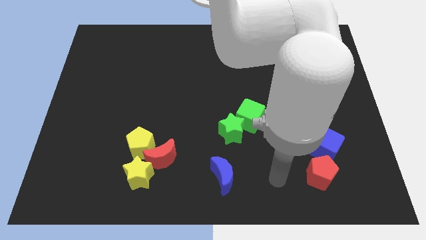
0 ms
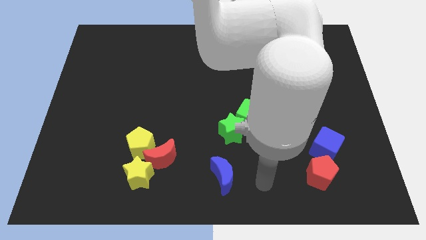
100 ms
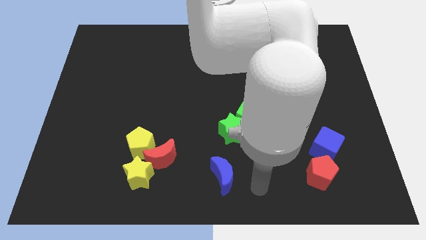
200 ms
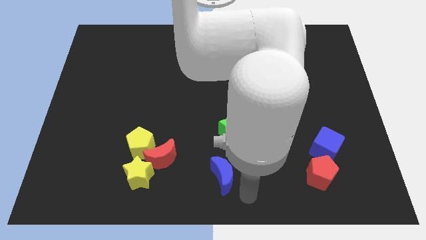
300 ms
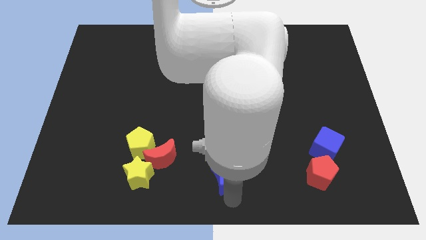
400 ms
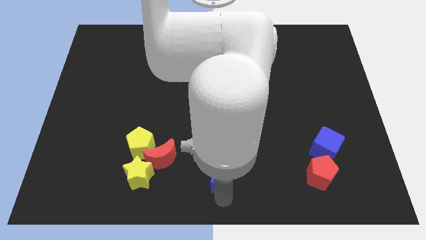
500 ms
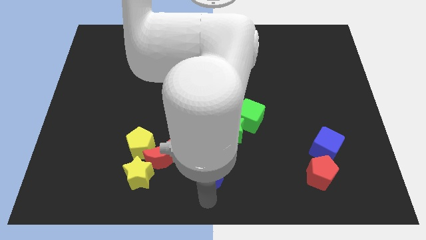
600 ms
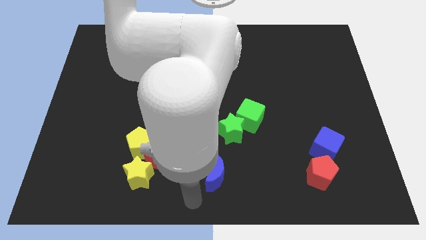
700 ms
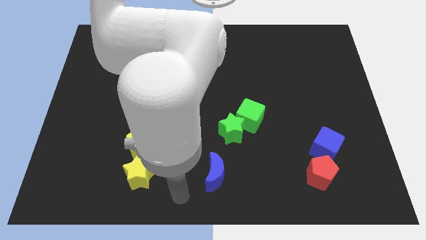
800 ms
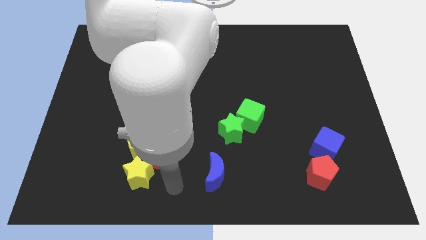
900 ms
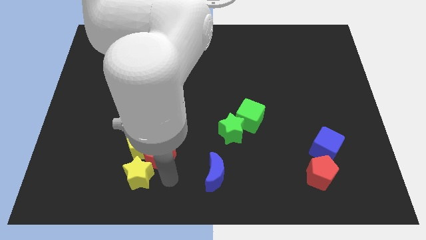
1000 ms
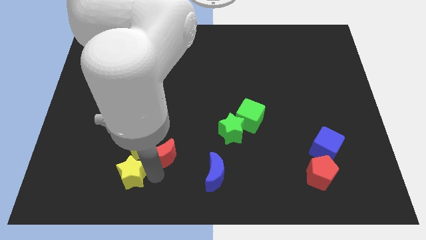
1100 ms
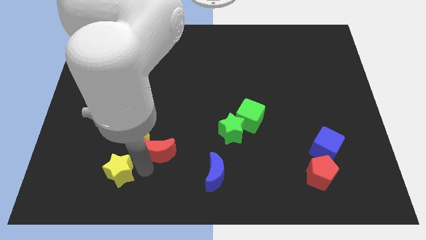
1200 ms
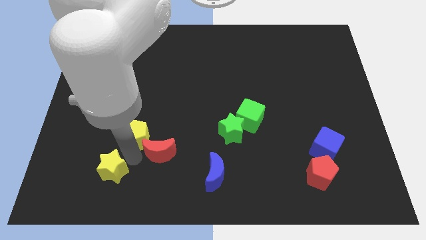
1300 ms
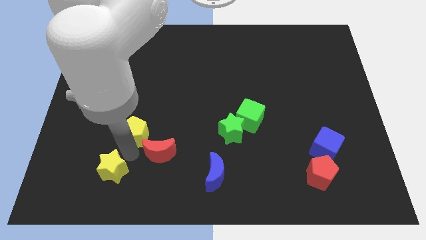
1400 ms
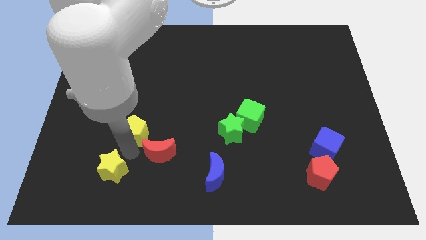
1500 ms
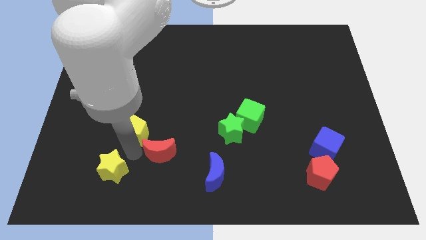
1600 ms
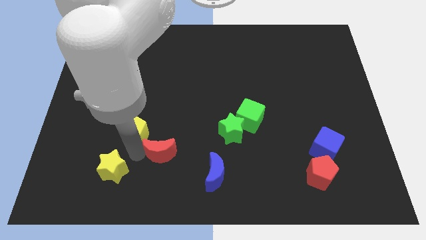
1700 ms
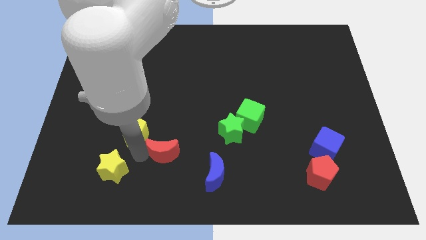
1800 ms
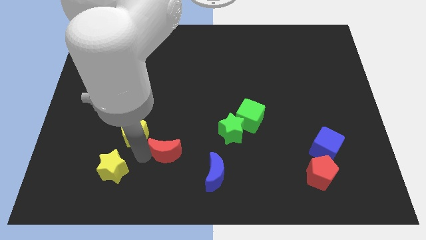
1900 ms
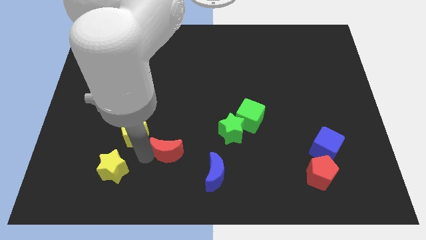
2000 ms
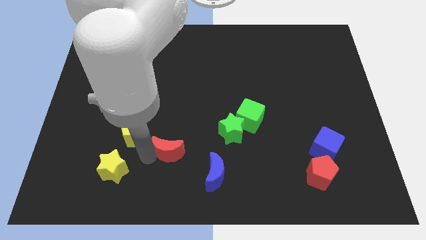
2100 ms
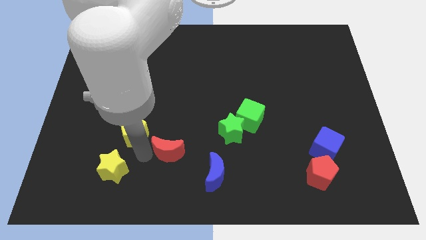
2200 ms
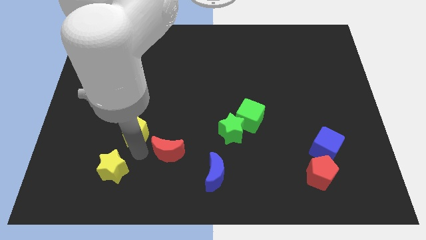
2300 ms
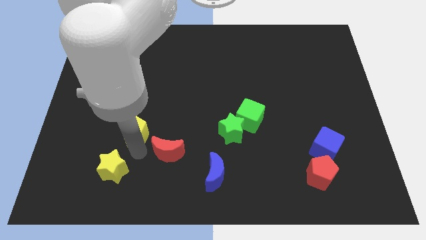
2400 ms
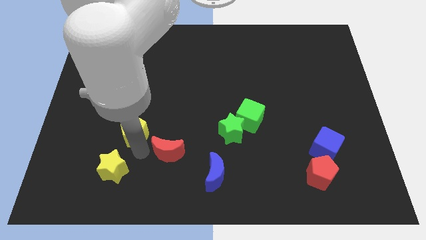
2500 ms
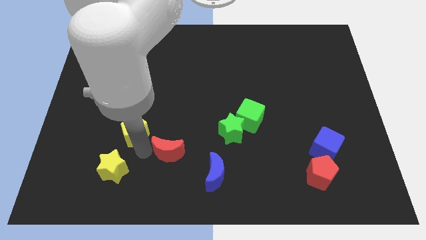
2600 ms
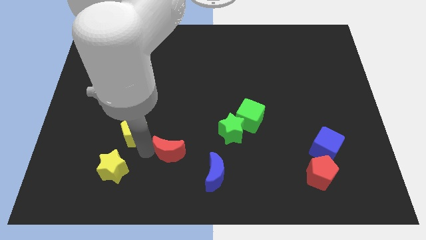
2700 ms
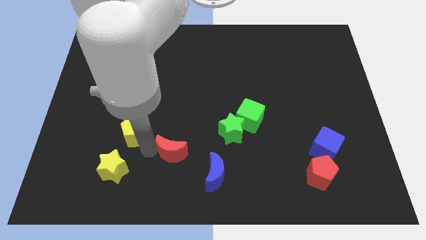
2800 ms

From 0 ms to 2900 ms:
pull the red moon apart from the yellow pentagon and yellow star

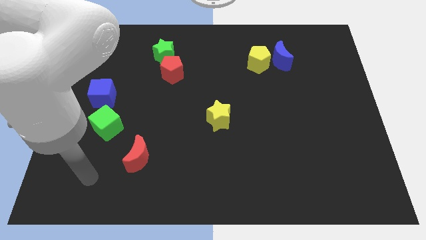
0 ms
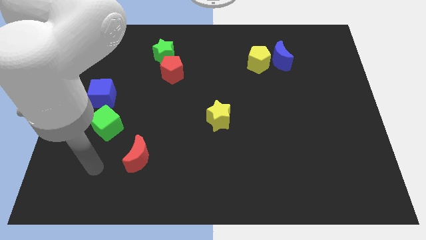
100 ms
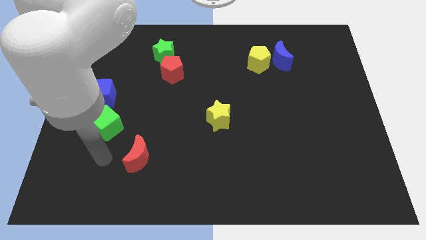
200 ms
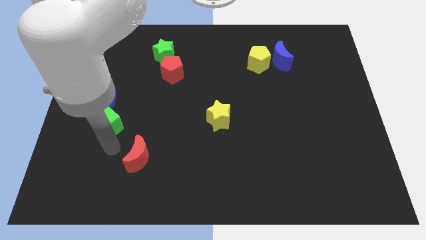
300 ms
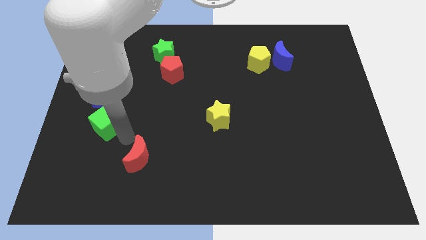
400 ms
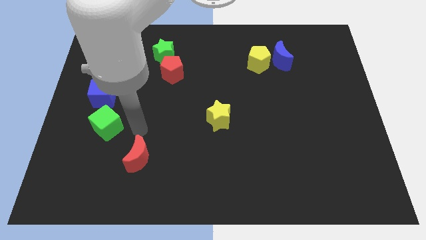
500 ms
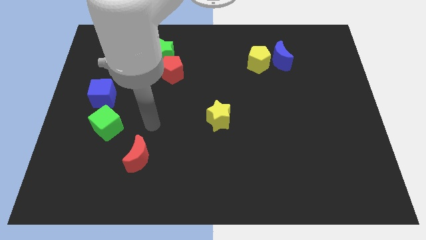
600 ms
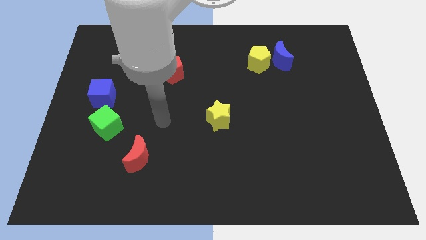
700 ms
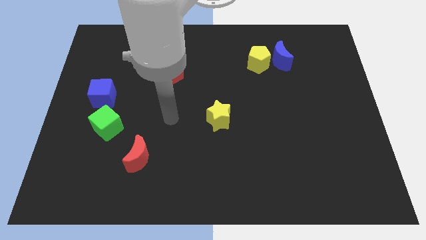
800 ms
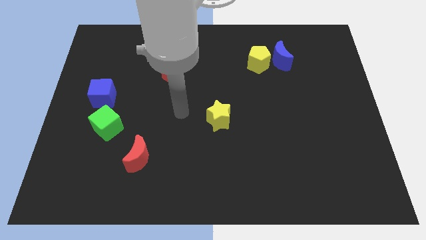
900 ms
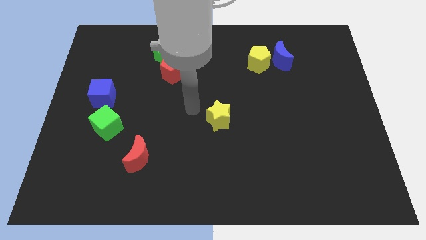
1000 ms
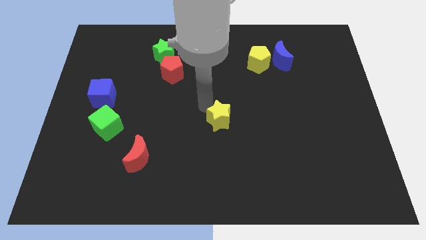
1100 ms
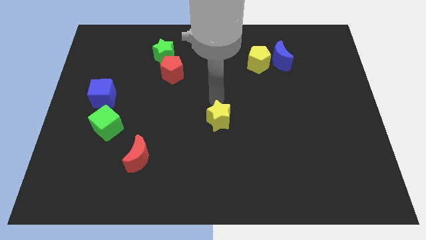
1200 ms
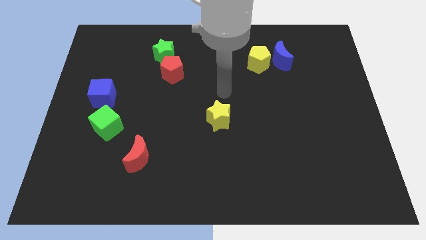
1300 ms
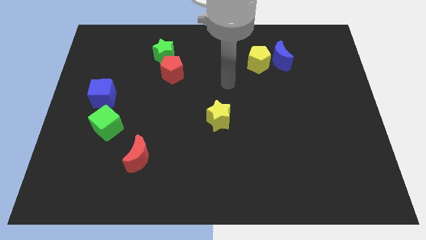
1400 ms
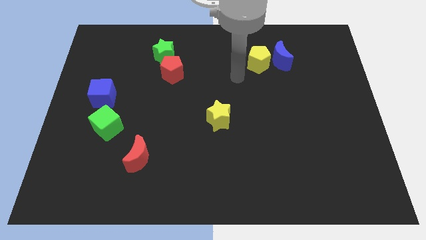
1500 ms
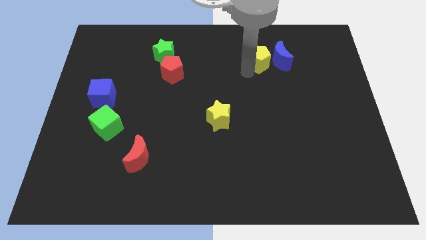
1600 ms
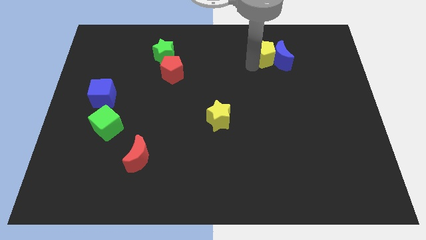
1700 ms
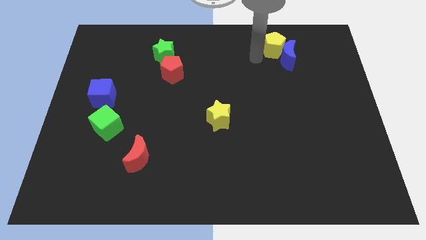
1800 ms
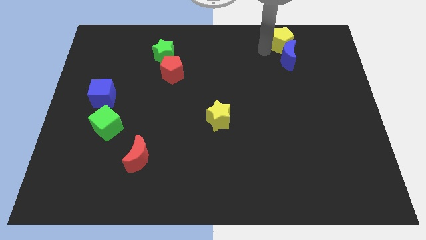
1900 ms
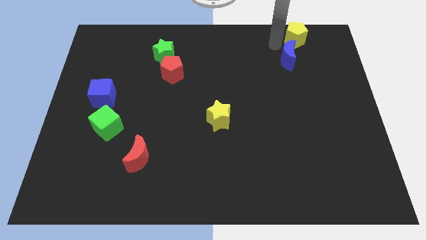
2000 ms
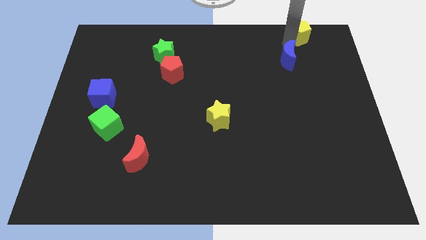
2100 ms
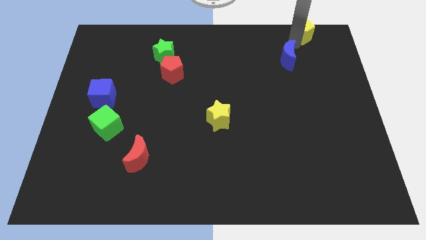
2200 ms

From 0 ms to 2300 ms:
separate the blue moon from the yellow pentagon

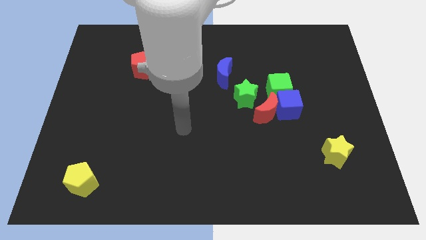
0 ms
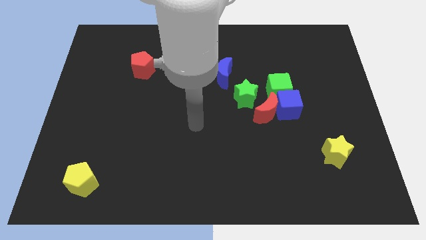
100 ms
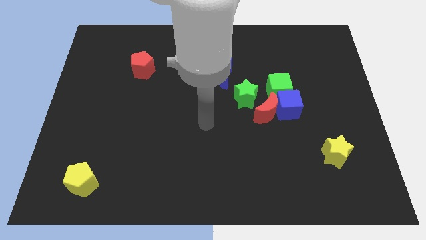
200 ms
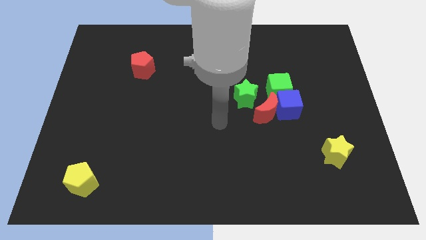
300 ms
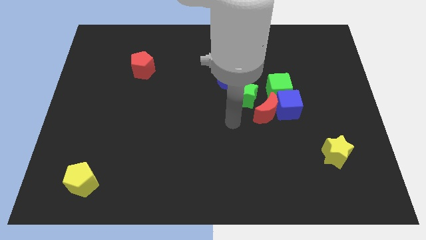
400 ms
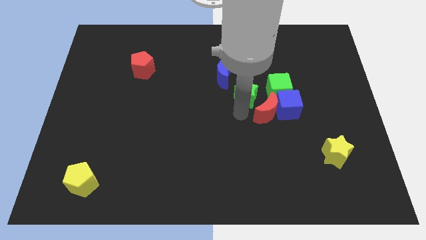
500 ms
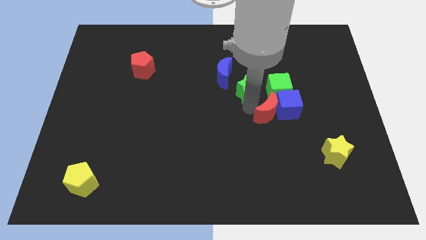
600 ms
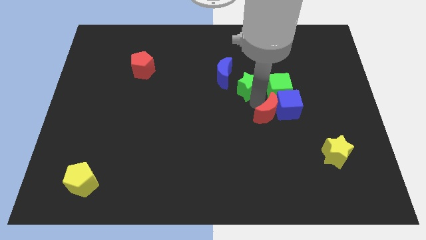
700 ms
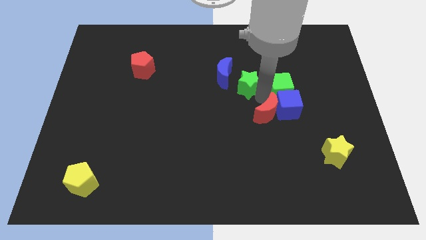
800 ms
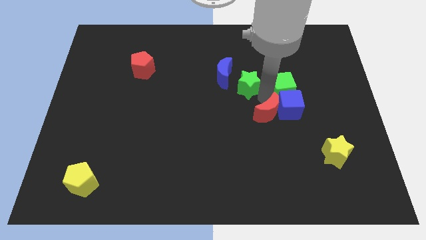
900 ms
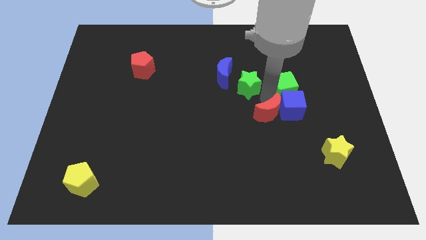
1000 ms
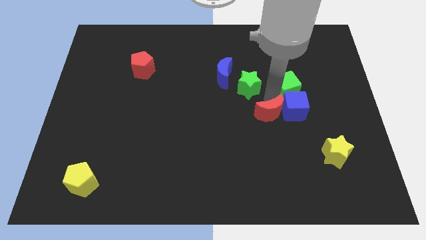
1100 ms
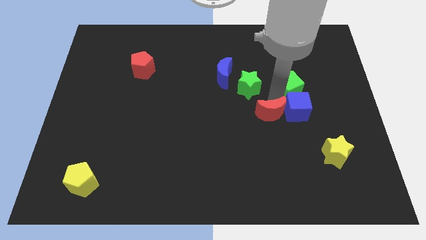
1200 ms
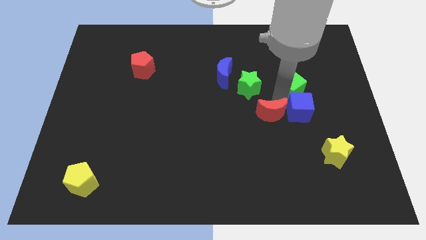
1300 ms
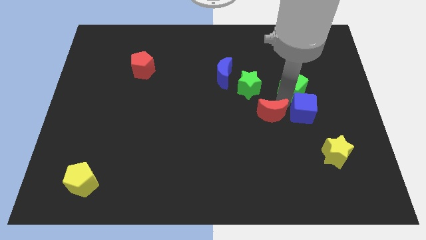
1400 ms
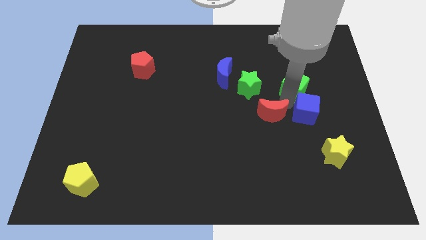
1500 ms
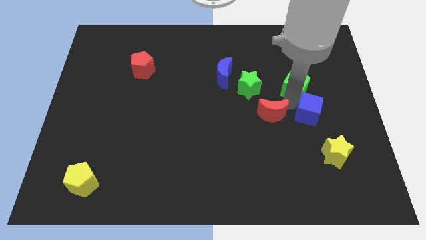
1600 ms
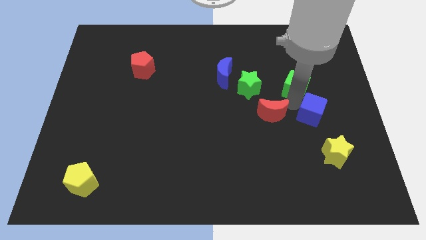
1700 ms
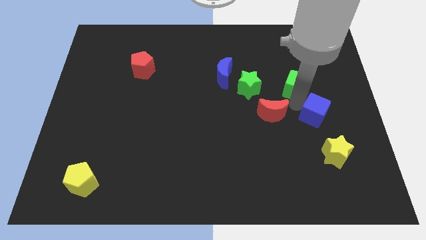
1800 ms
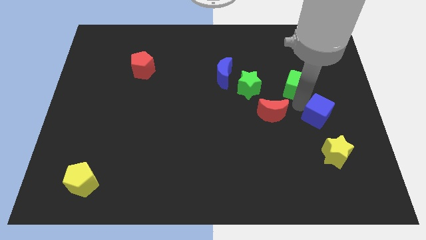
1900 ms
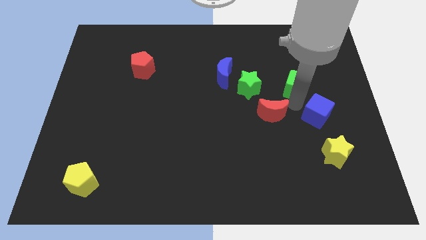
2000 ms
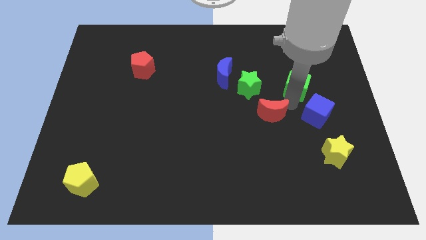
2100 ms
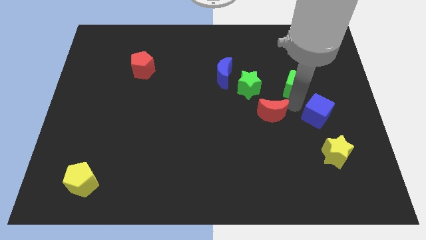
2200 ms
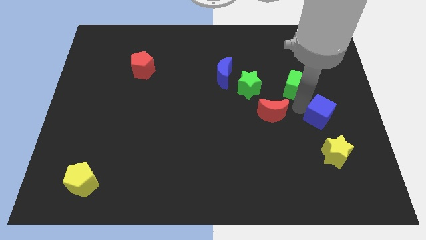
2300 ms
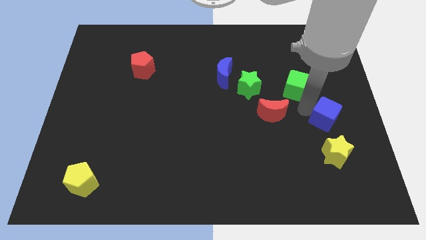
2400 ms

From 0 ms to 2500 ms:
move the blue cube away from the red moon and green cube

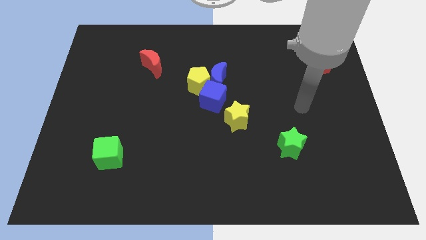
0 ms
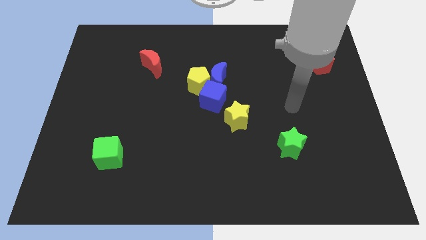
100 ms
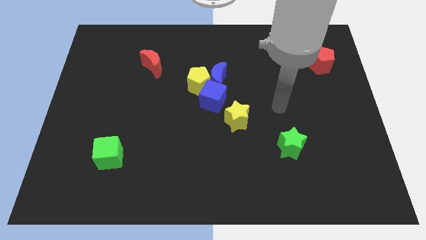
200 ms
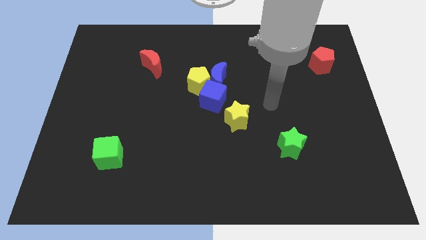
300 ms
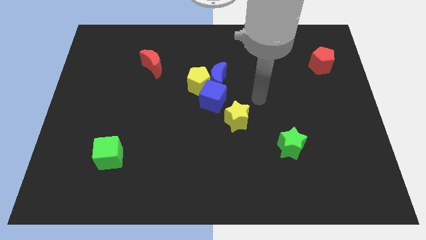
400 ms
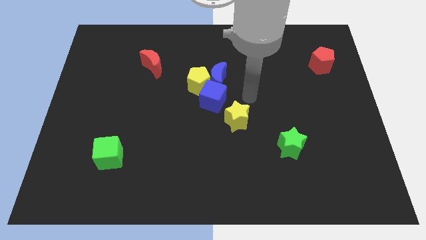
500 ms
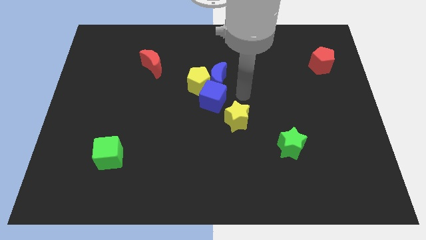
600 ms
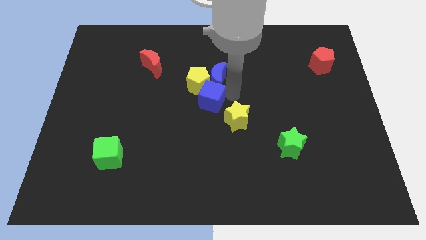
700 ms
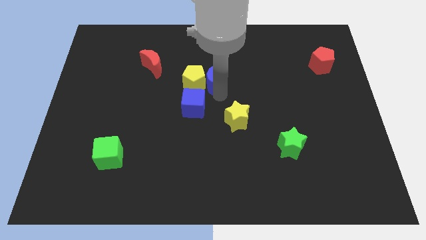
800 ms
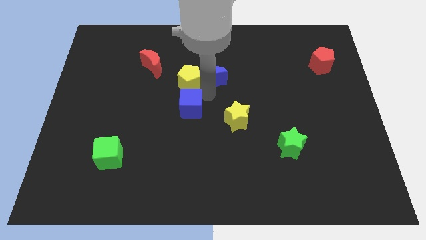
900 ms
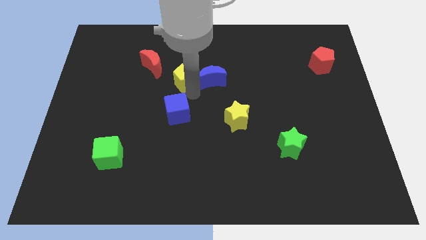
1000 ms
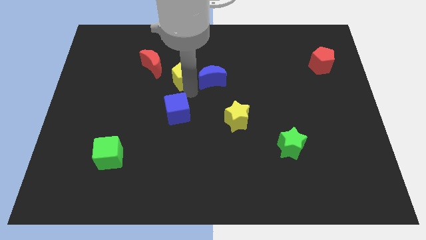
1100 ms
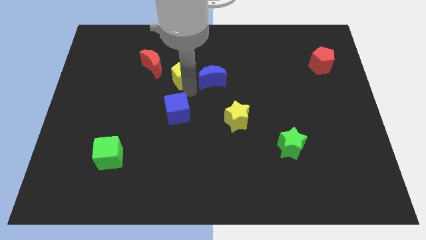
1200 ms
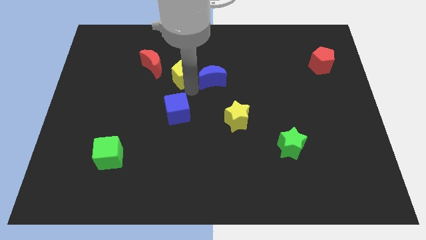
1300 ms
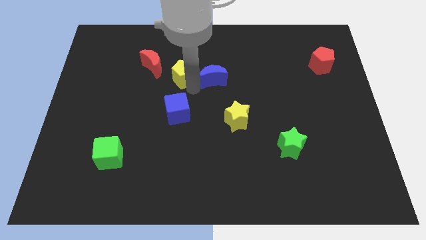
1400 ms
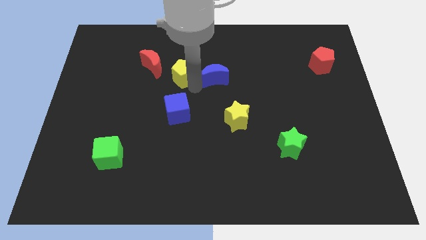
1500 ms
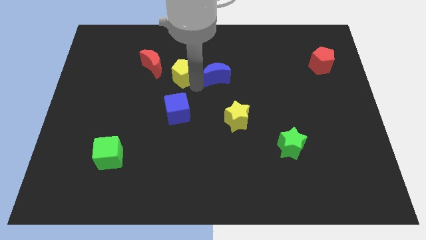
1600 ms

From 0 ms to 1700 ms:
pull the blue moon apart from the yellow pentagon and blue cube
